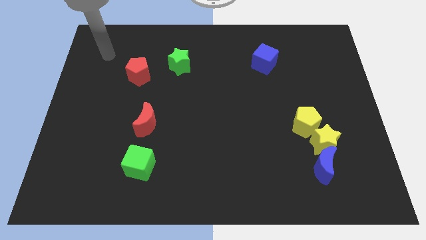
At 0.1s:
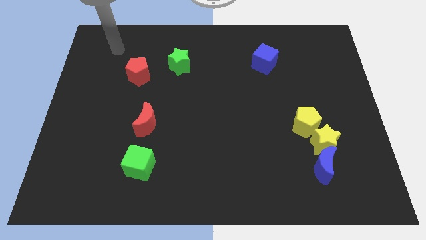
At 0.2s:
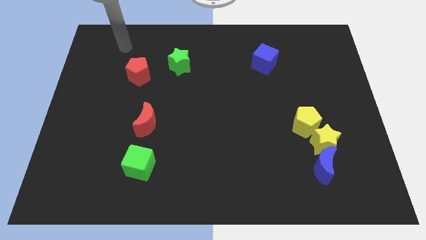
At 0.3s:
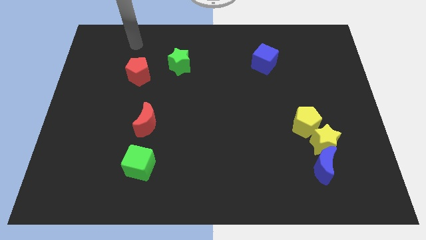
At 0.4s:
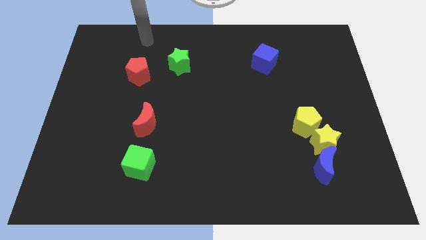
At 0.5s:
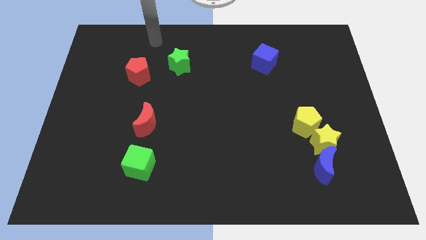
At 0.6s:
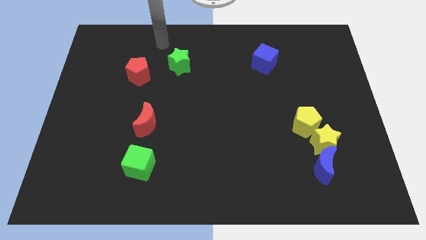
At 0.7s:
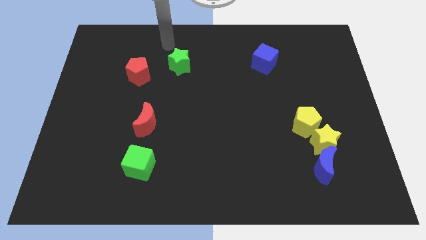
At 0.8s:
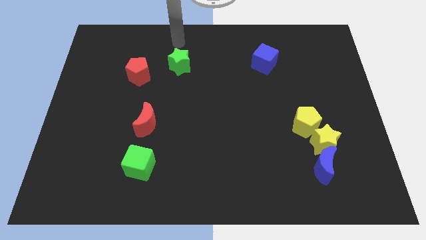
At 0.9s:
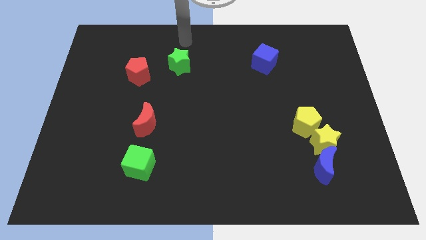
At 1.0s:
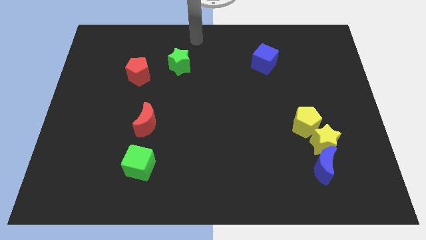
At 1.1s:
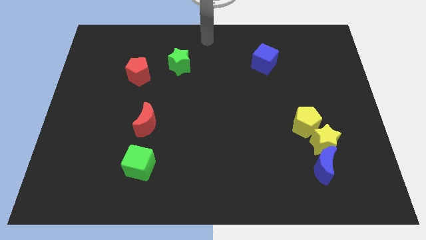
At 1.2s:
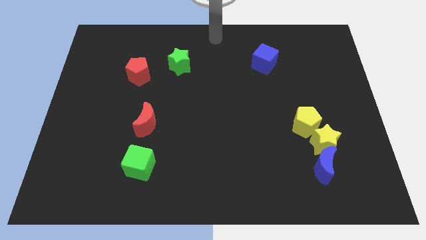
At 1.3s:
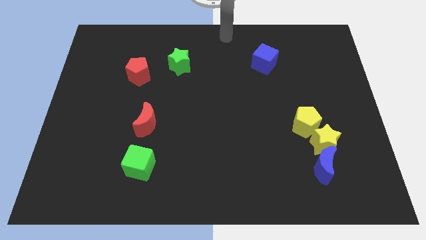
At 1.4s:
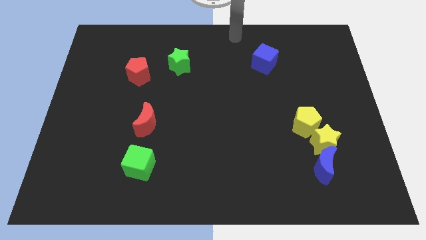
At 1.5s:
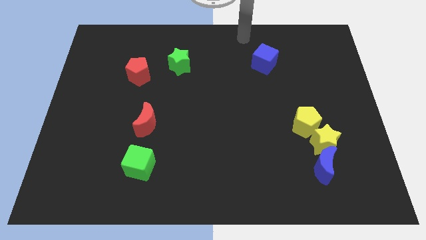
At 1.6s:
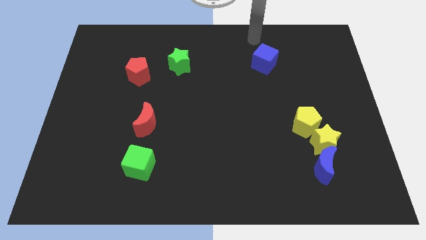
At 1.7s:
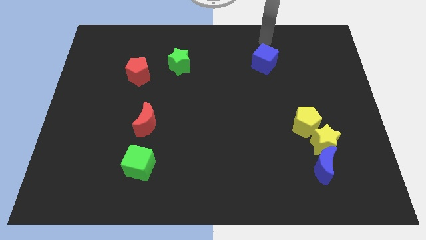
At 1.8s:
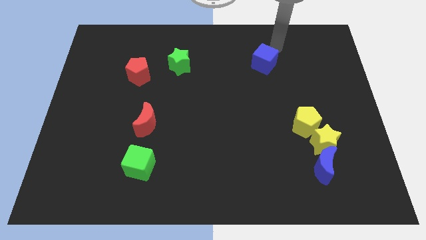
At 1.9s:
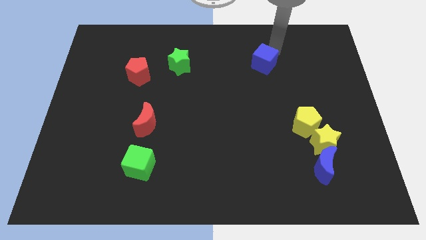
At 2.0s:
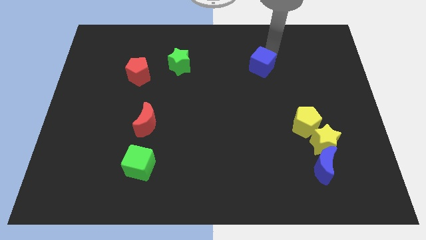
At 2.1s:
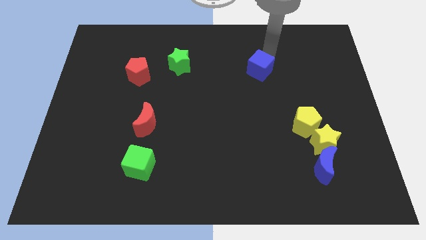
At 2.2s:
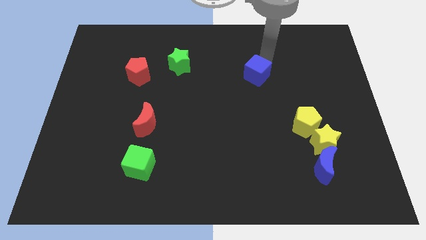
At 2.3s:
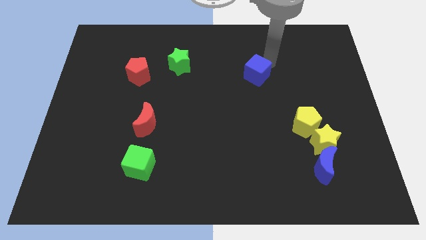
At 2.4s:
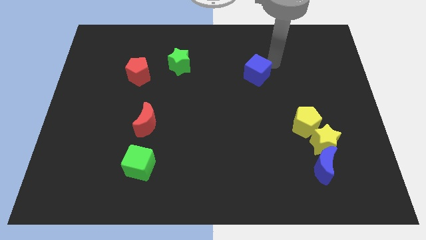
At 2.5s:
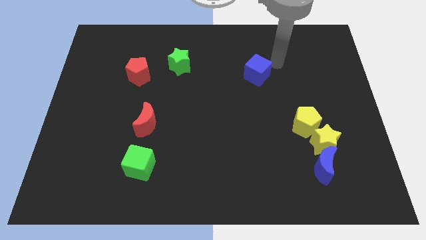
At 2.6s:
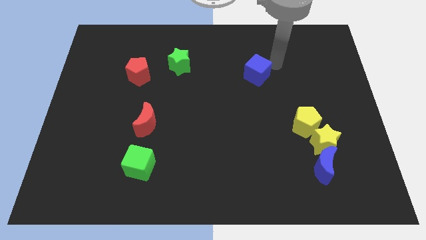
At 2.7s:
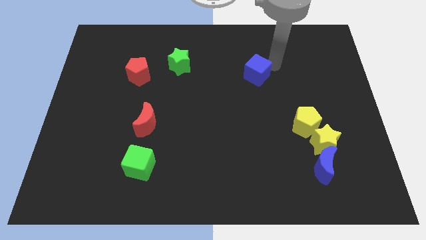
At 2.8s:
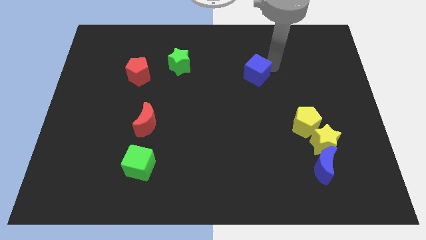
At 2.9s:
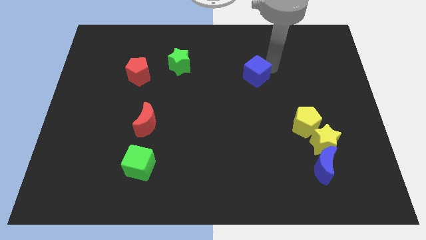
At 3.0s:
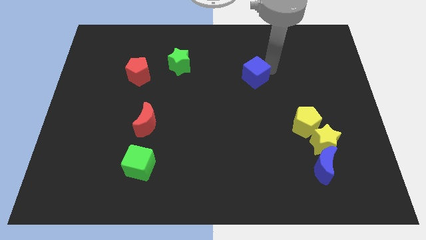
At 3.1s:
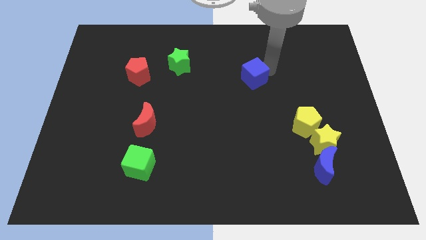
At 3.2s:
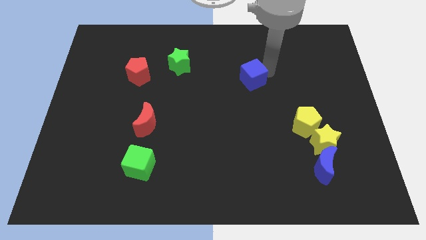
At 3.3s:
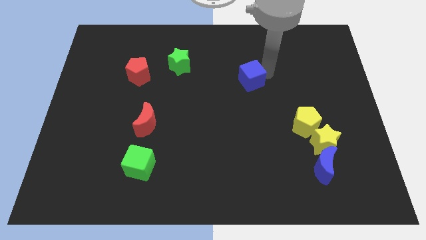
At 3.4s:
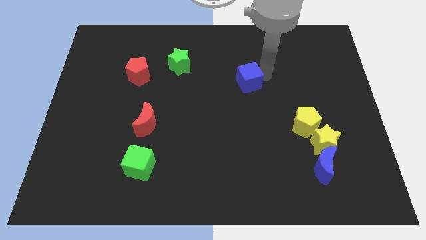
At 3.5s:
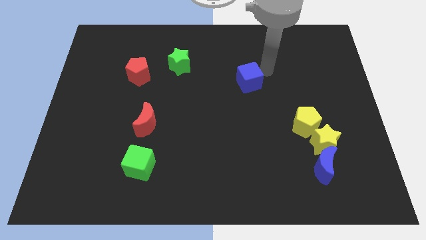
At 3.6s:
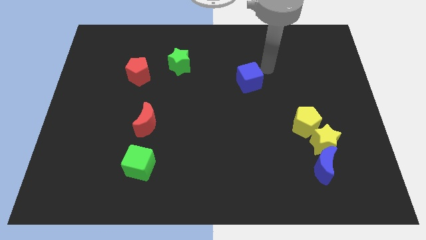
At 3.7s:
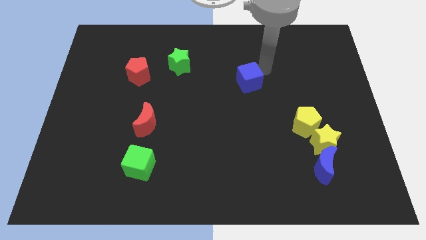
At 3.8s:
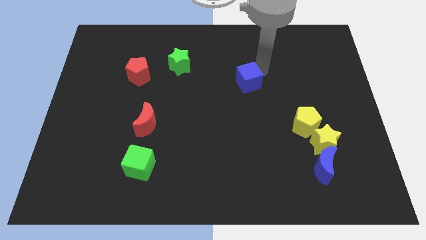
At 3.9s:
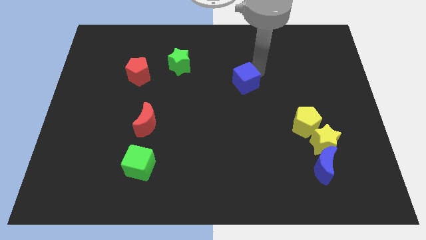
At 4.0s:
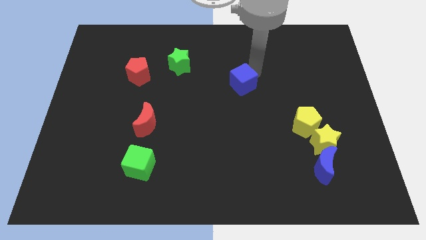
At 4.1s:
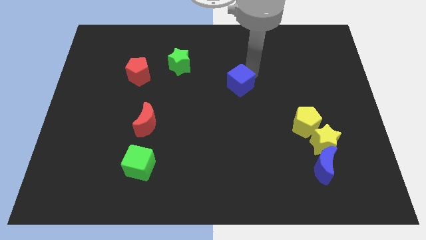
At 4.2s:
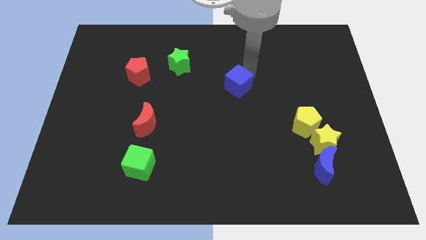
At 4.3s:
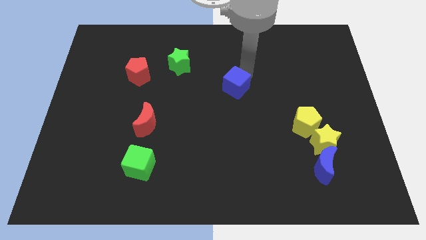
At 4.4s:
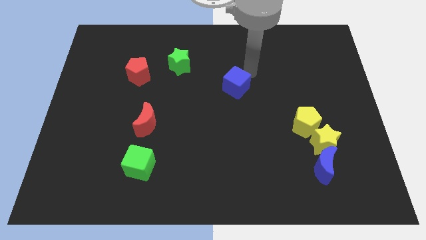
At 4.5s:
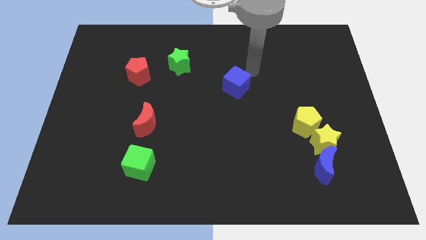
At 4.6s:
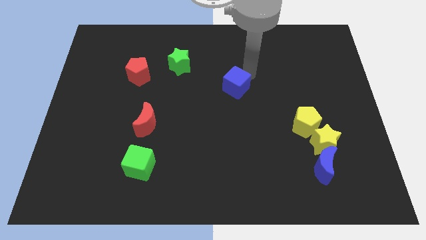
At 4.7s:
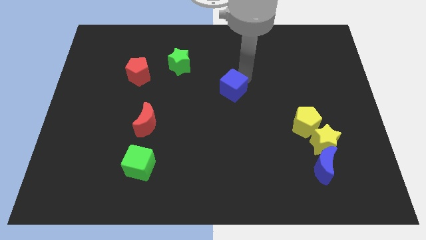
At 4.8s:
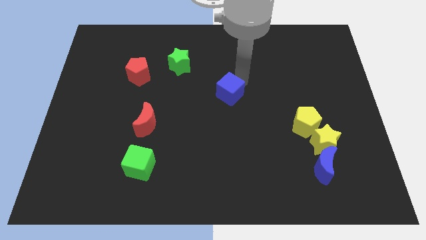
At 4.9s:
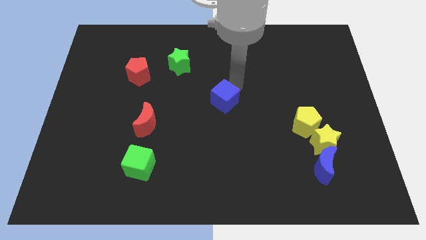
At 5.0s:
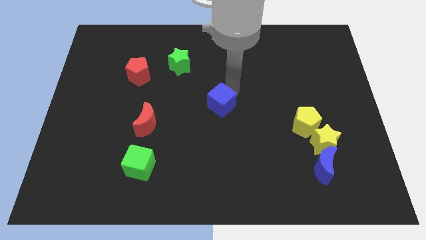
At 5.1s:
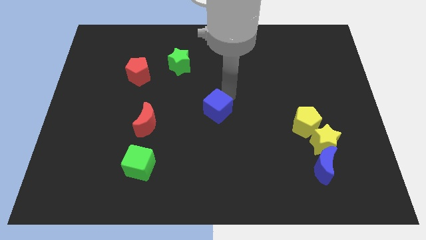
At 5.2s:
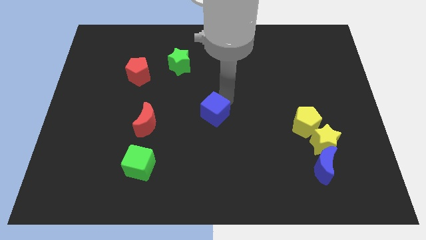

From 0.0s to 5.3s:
move the blue cube diagonally down and to the left

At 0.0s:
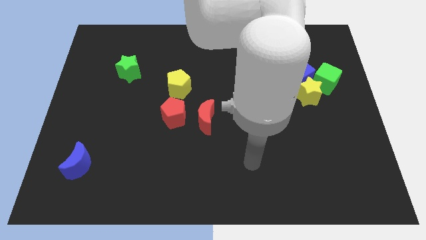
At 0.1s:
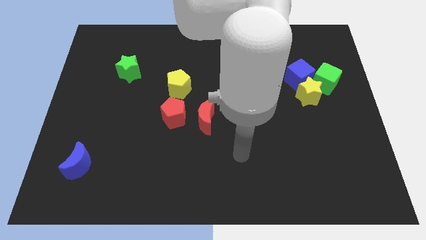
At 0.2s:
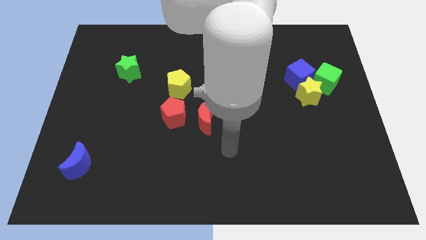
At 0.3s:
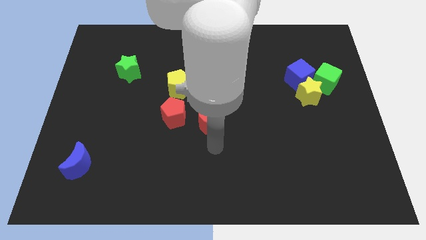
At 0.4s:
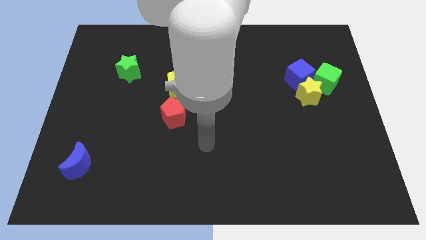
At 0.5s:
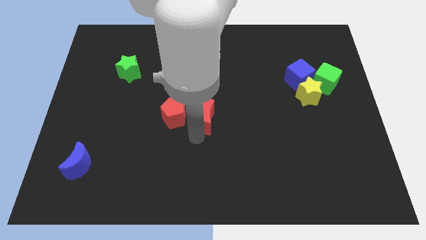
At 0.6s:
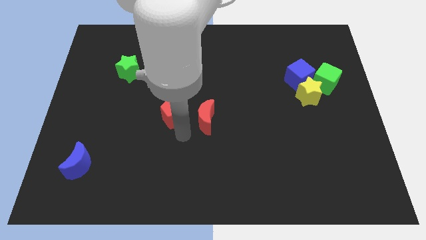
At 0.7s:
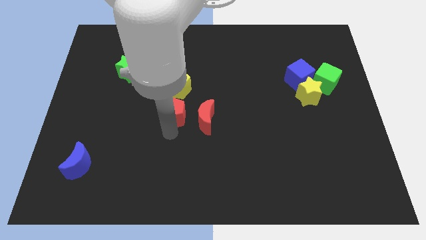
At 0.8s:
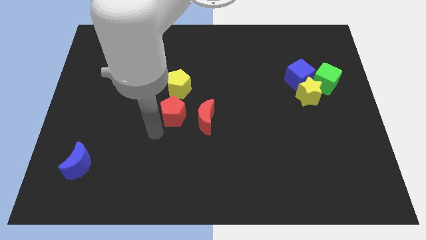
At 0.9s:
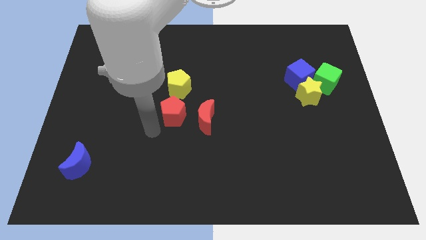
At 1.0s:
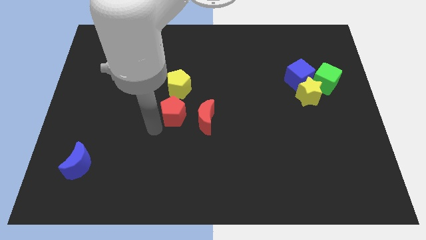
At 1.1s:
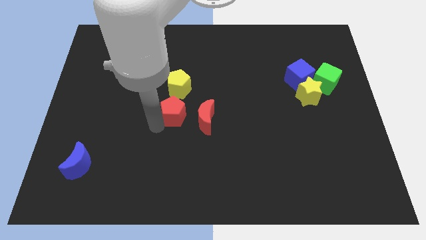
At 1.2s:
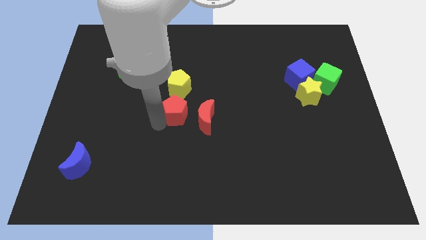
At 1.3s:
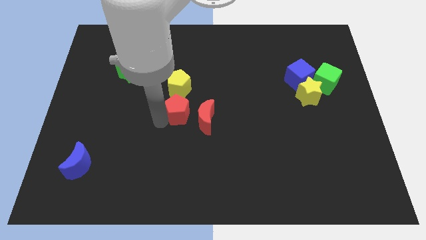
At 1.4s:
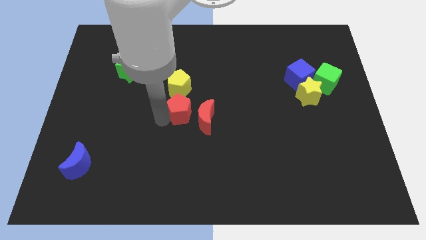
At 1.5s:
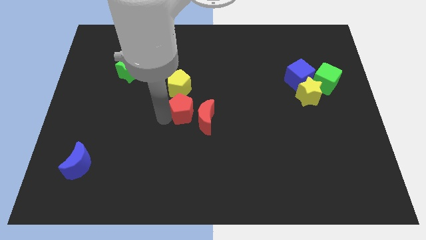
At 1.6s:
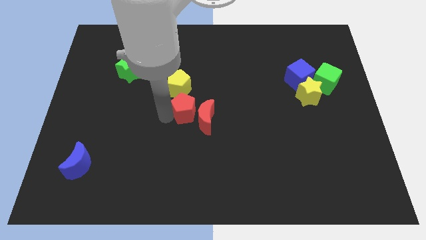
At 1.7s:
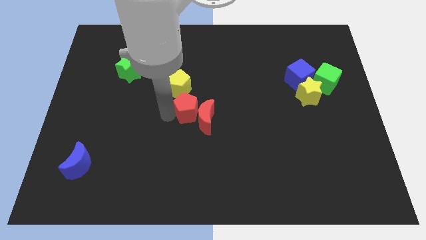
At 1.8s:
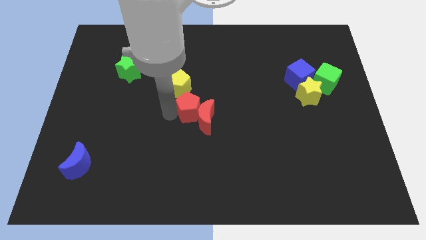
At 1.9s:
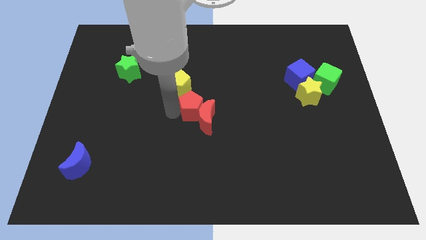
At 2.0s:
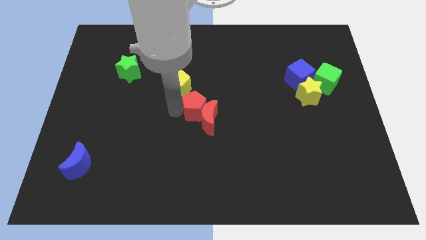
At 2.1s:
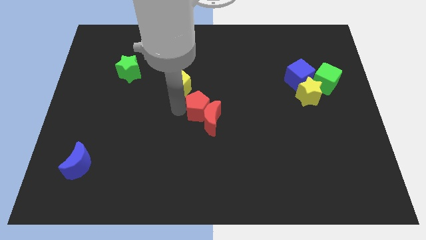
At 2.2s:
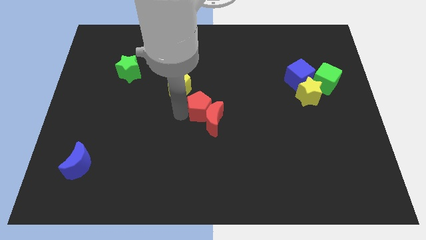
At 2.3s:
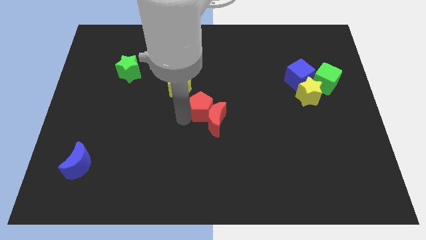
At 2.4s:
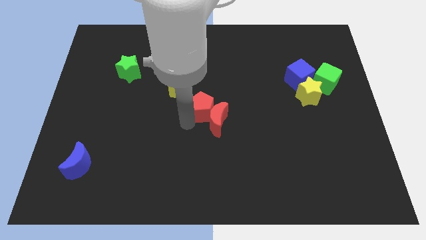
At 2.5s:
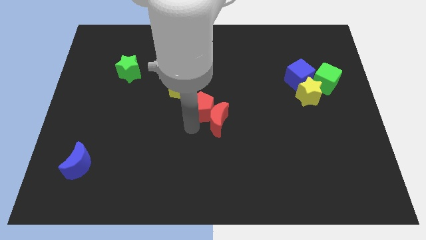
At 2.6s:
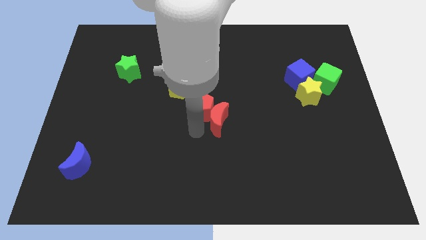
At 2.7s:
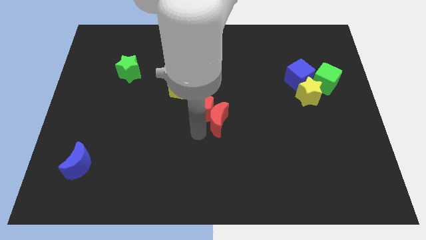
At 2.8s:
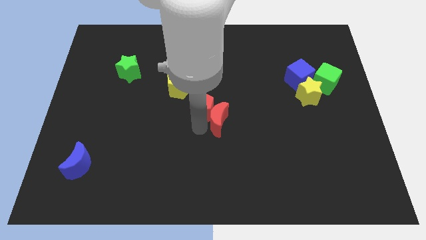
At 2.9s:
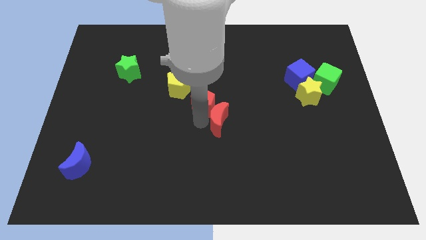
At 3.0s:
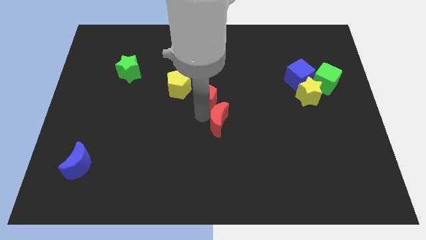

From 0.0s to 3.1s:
slide the red pentagon upwards and then right a little
